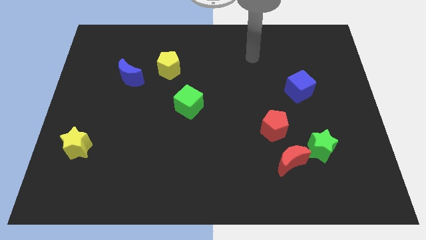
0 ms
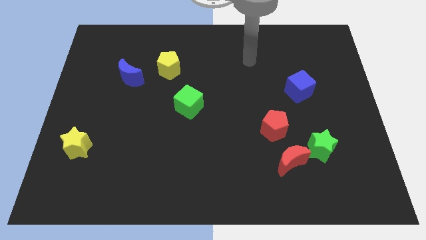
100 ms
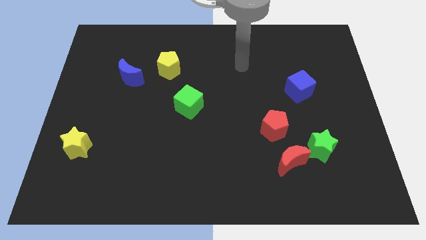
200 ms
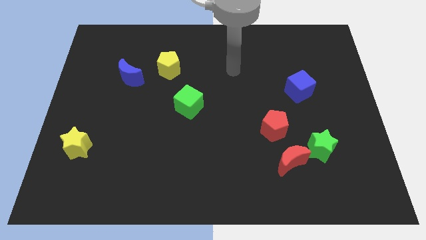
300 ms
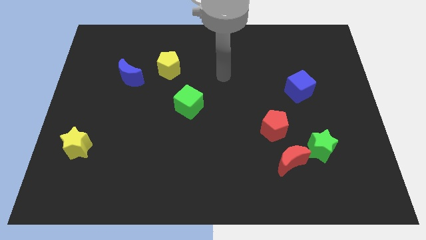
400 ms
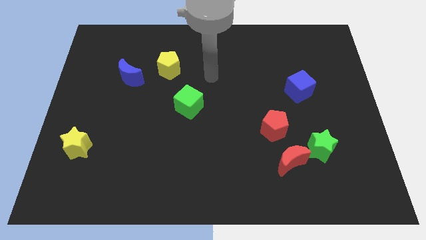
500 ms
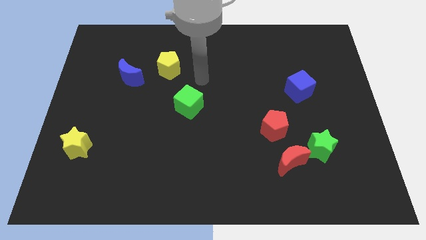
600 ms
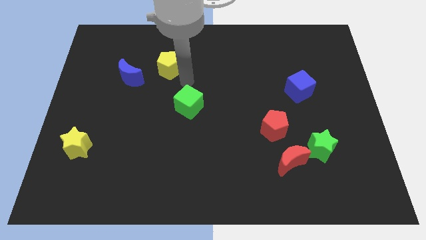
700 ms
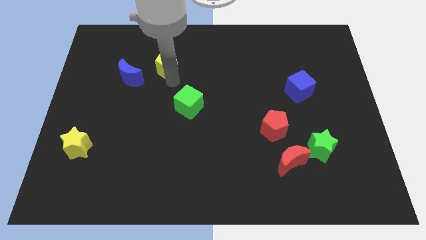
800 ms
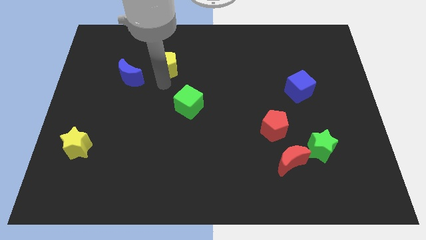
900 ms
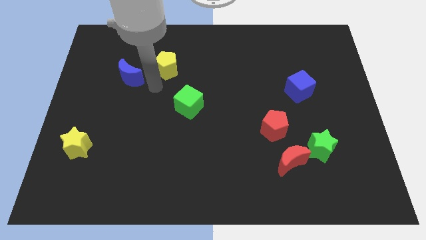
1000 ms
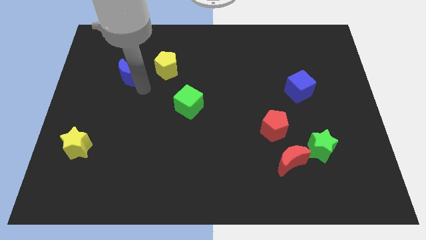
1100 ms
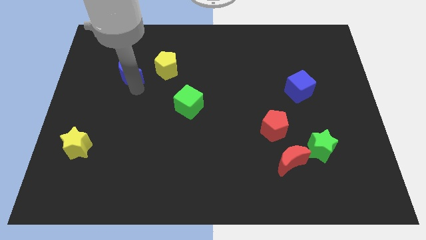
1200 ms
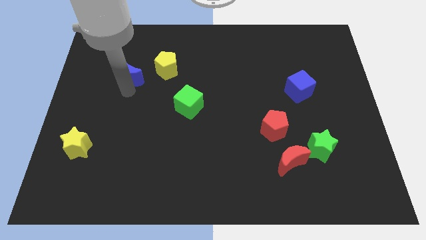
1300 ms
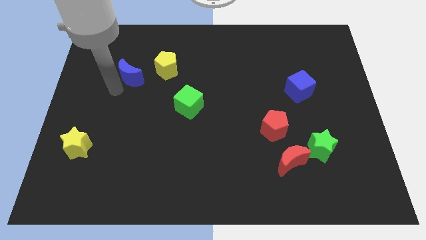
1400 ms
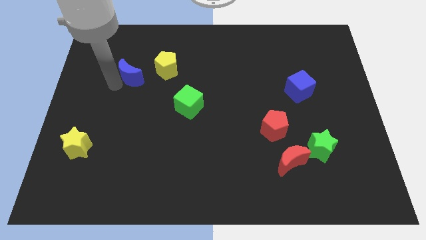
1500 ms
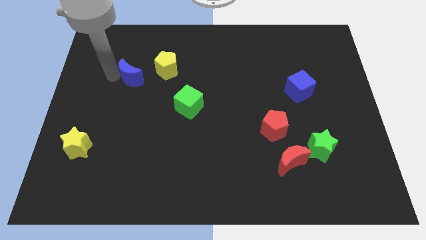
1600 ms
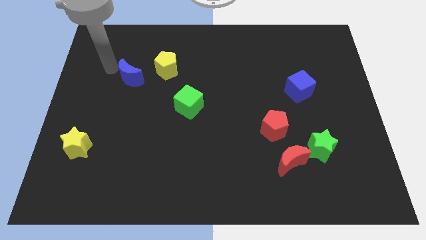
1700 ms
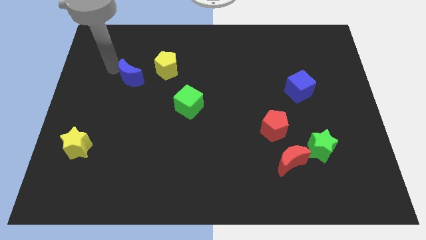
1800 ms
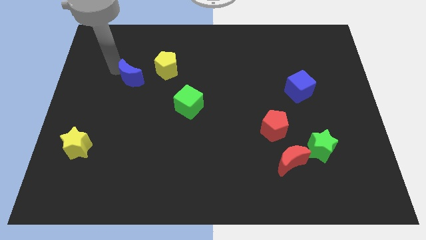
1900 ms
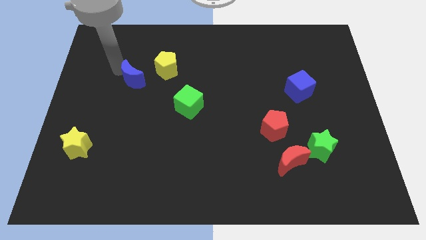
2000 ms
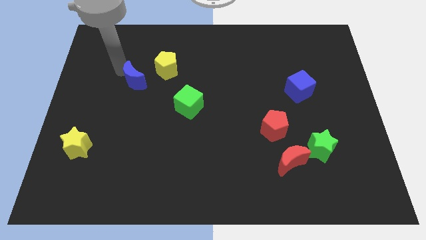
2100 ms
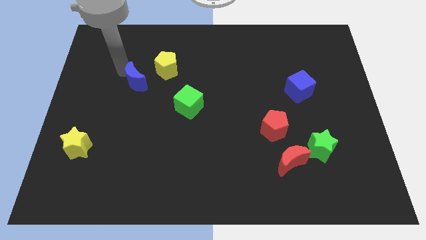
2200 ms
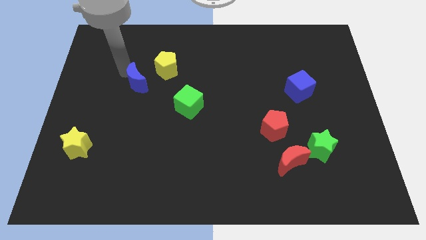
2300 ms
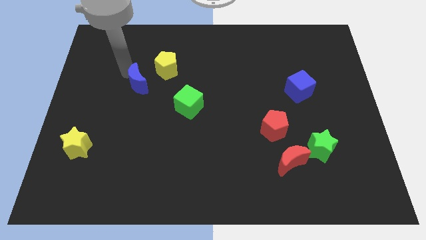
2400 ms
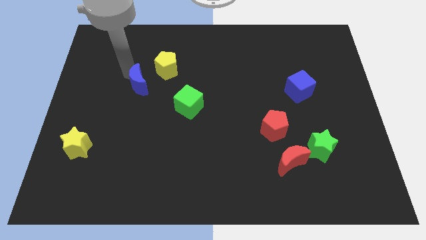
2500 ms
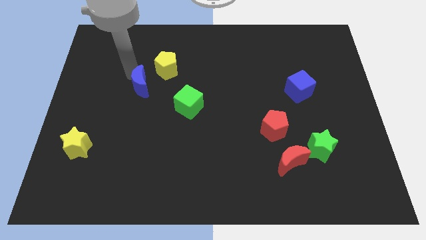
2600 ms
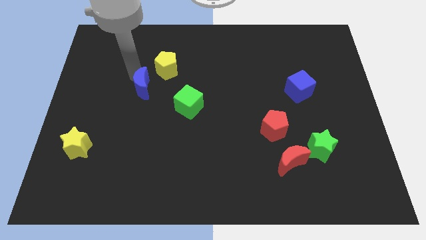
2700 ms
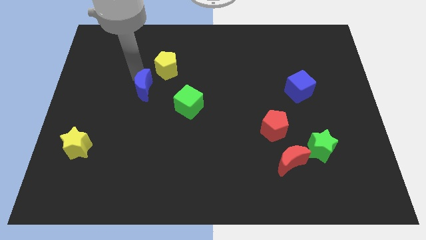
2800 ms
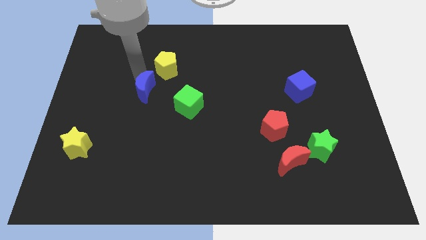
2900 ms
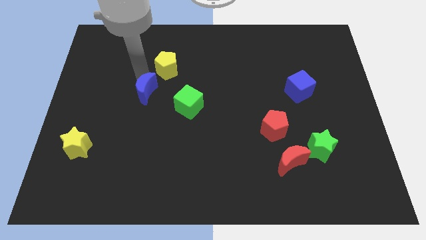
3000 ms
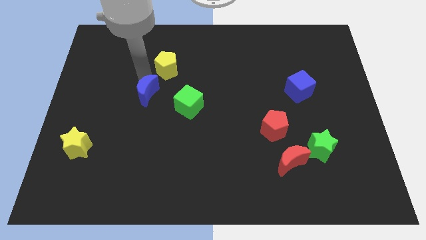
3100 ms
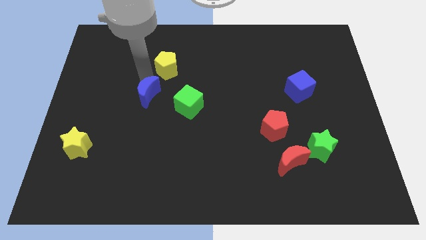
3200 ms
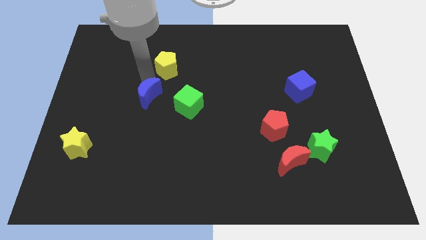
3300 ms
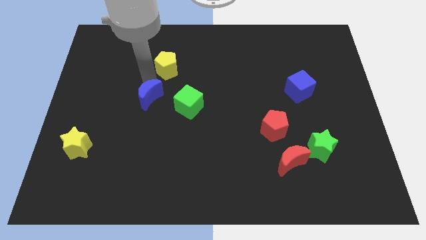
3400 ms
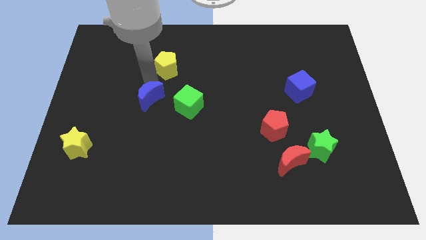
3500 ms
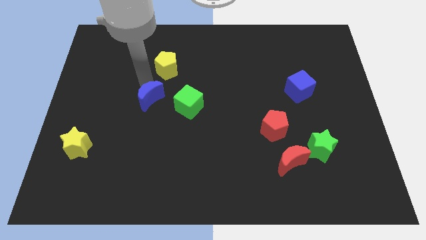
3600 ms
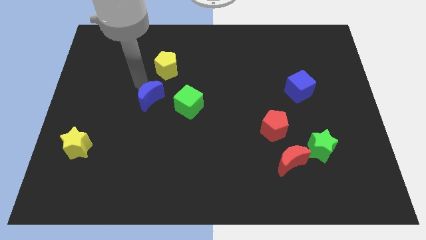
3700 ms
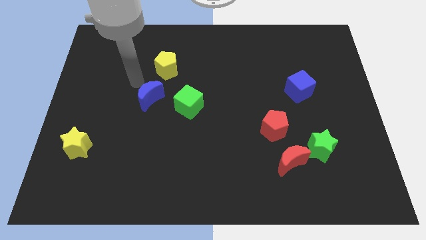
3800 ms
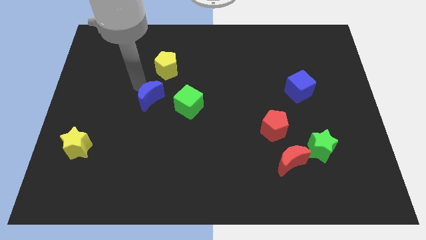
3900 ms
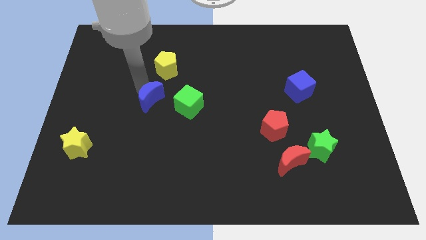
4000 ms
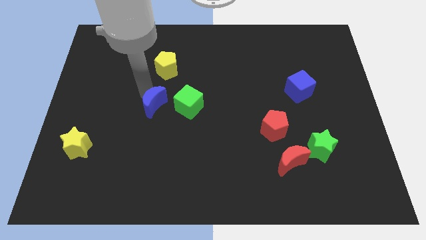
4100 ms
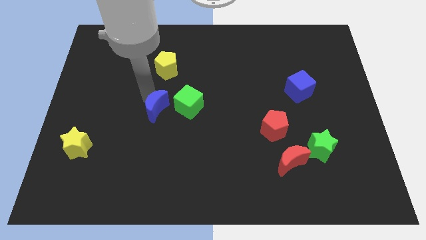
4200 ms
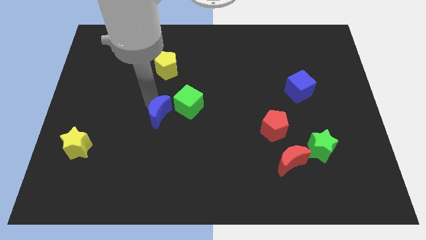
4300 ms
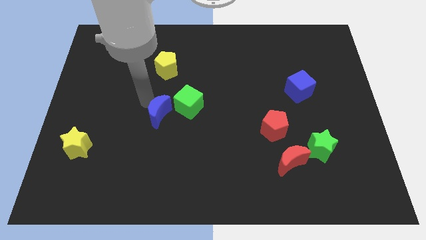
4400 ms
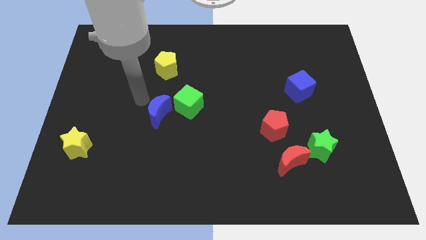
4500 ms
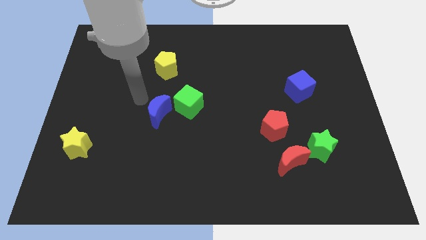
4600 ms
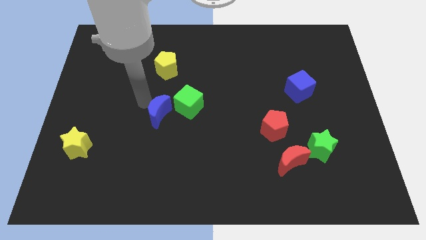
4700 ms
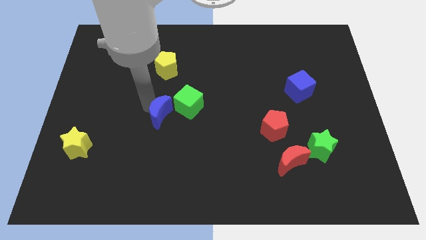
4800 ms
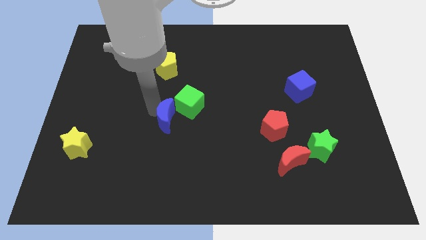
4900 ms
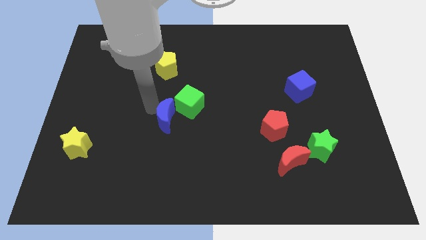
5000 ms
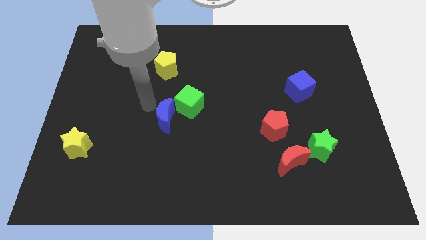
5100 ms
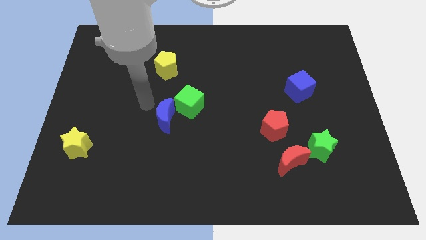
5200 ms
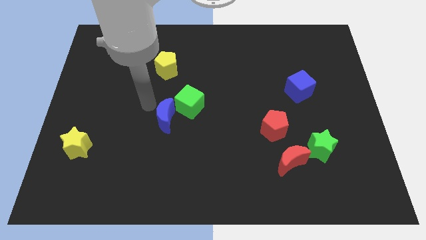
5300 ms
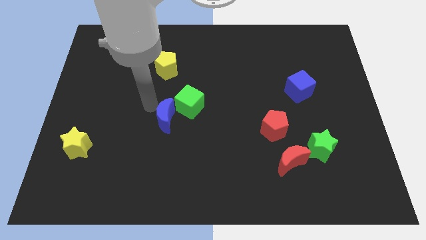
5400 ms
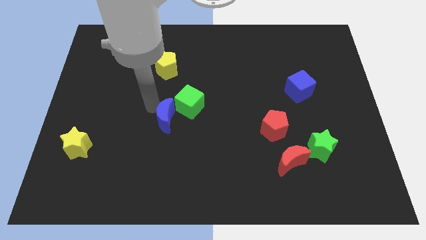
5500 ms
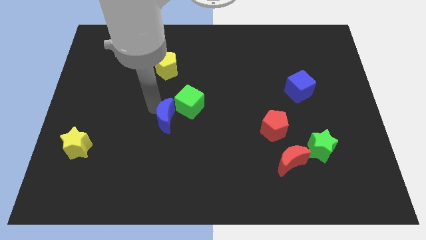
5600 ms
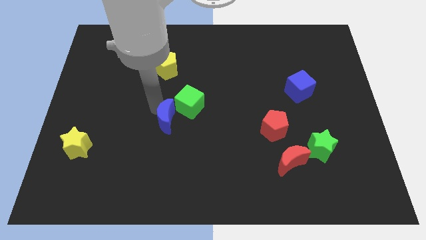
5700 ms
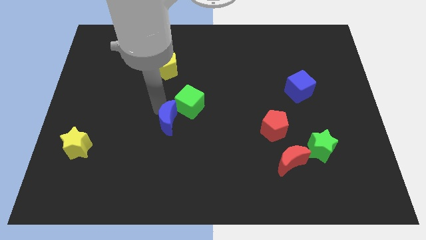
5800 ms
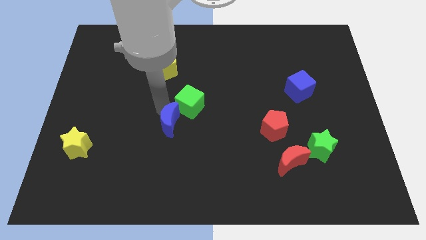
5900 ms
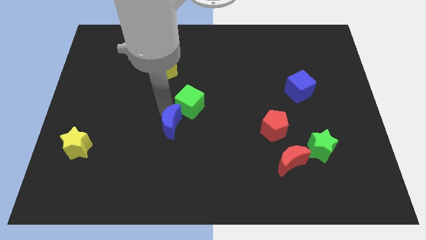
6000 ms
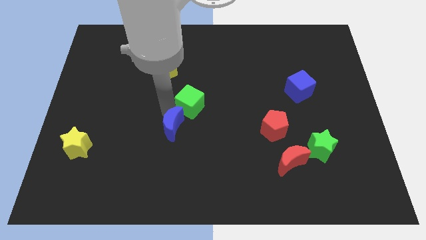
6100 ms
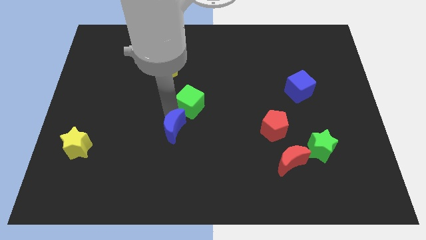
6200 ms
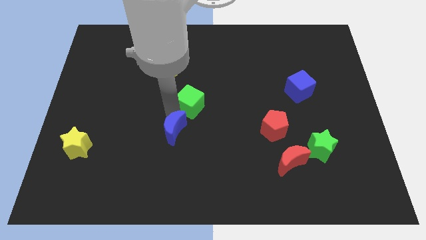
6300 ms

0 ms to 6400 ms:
slide the blue moon downwards and right diagonally

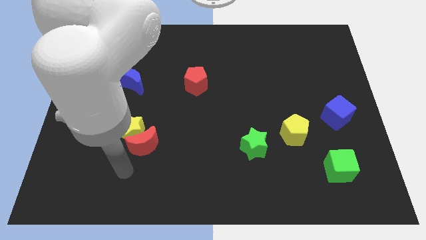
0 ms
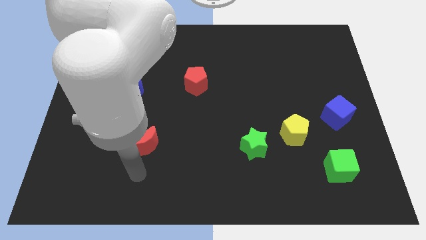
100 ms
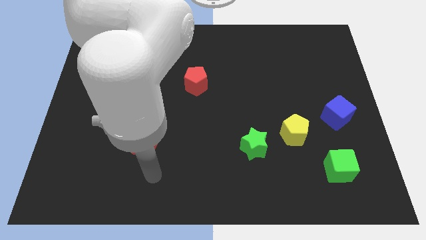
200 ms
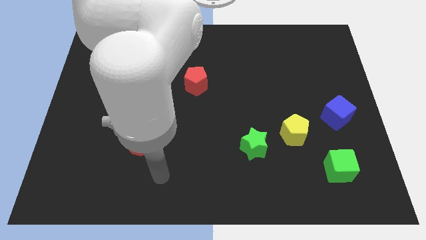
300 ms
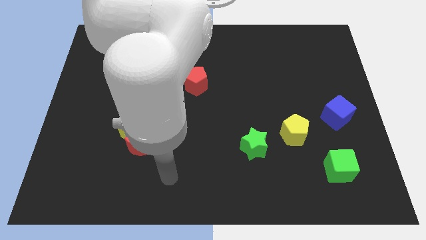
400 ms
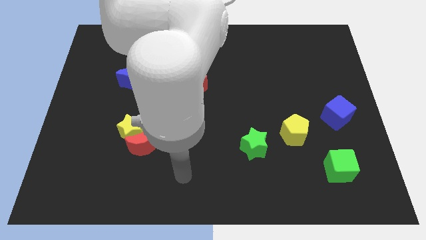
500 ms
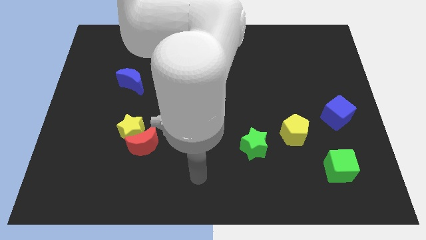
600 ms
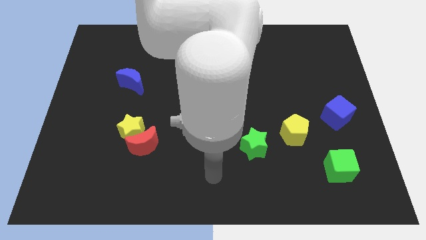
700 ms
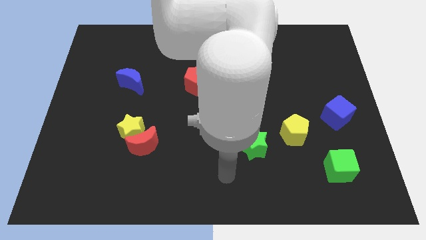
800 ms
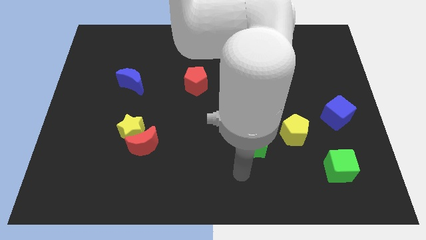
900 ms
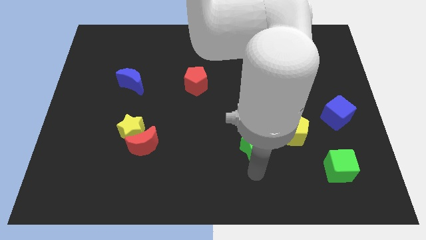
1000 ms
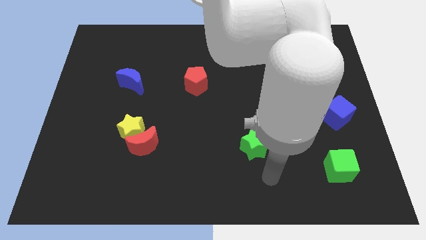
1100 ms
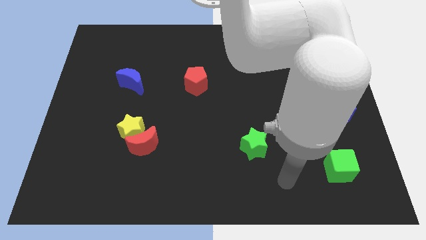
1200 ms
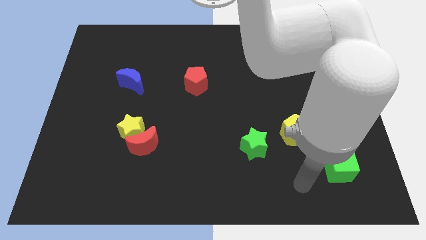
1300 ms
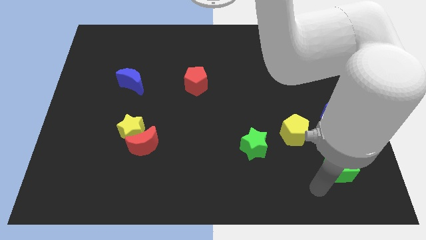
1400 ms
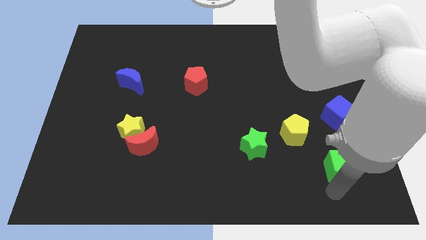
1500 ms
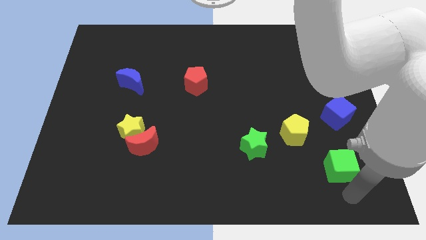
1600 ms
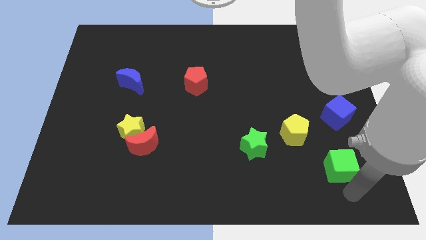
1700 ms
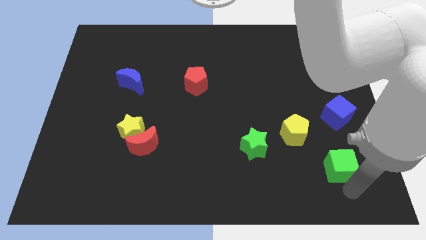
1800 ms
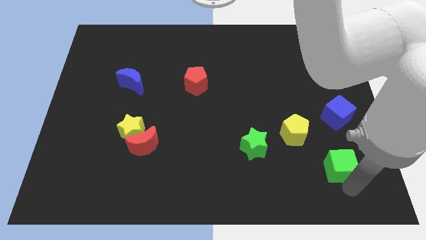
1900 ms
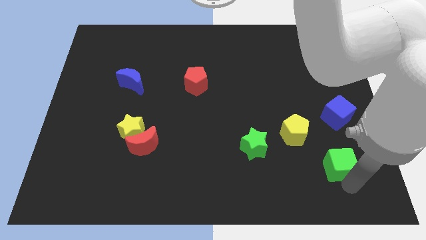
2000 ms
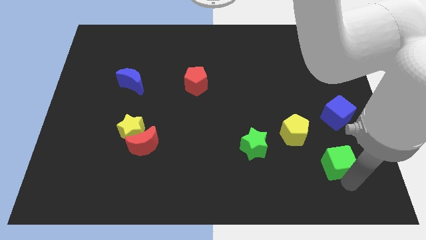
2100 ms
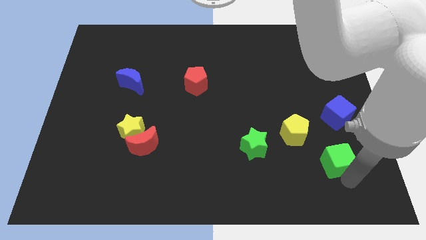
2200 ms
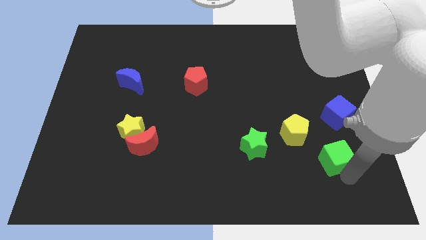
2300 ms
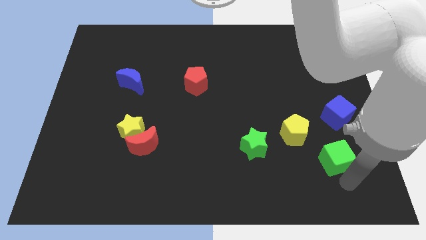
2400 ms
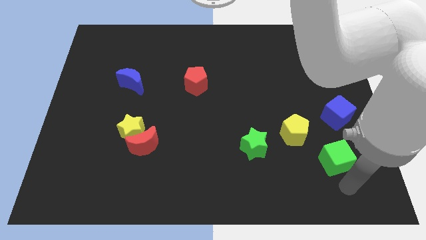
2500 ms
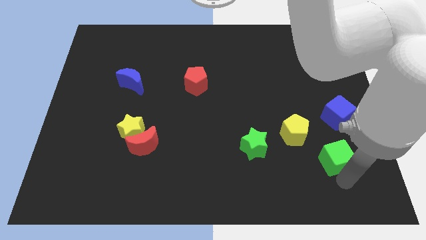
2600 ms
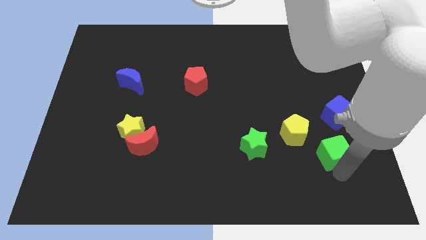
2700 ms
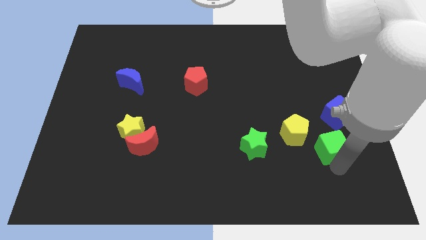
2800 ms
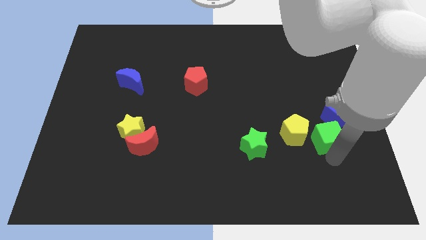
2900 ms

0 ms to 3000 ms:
slightly push the green cube up
